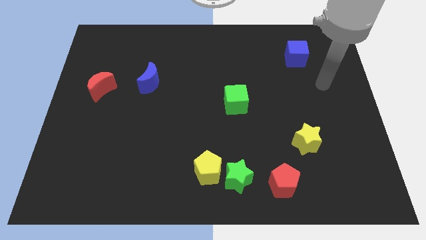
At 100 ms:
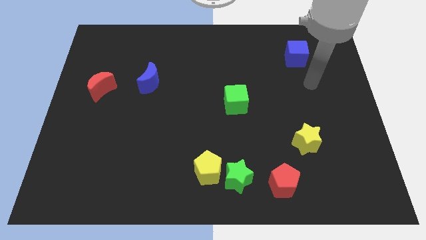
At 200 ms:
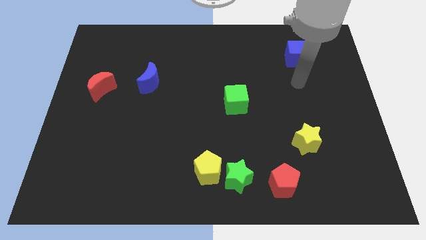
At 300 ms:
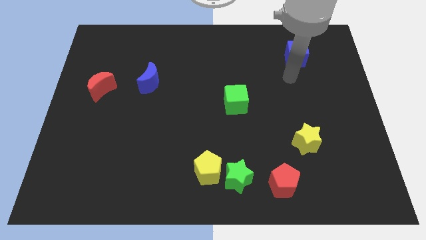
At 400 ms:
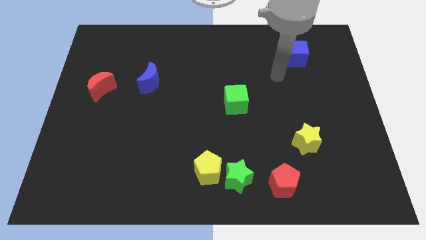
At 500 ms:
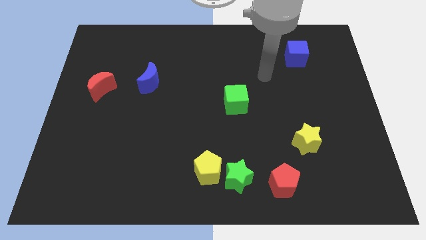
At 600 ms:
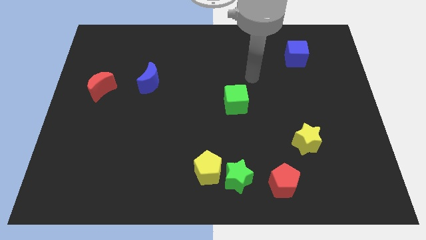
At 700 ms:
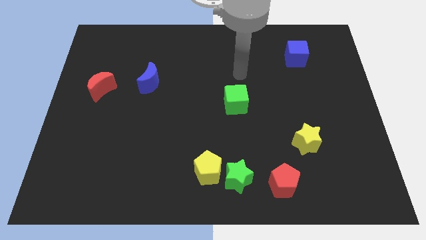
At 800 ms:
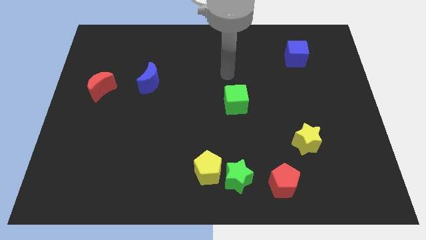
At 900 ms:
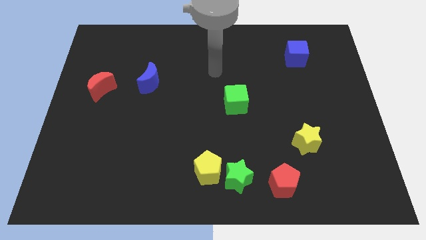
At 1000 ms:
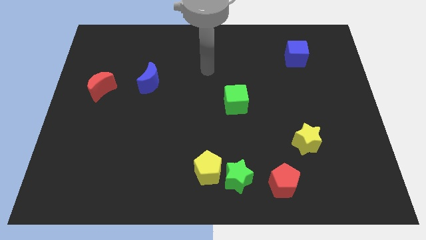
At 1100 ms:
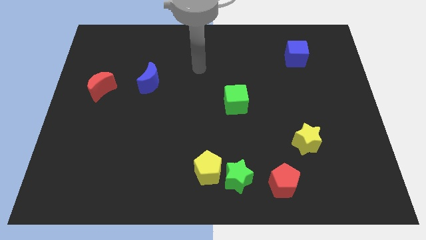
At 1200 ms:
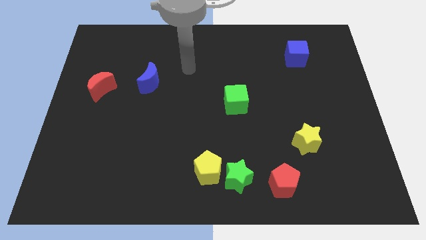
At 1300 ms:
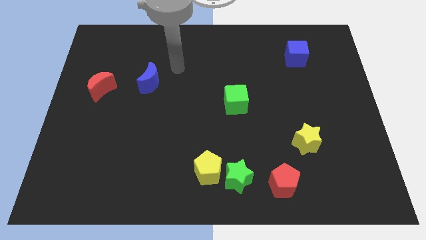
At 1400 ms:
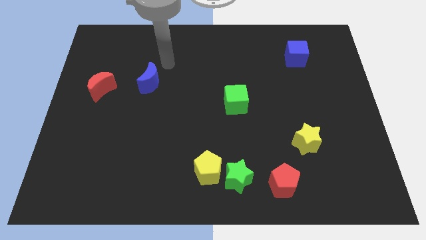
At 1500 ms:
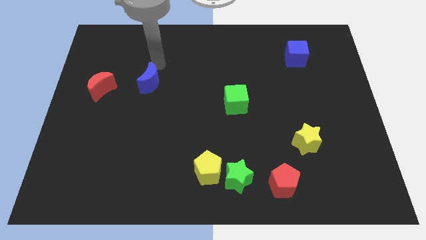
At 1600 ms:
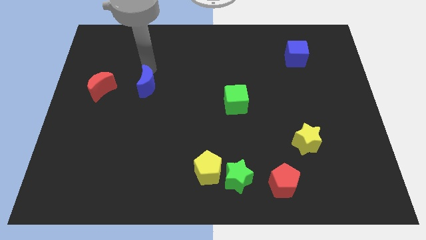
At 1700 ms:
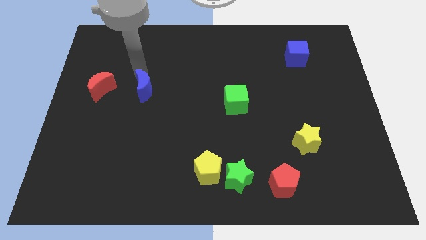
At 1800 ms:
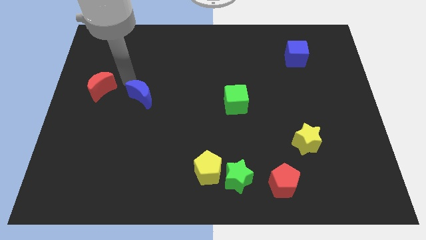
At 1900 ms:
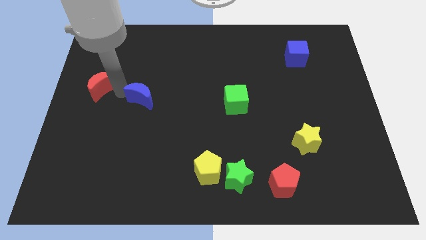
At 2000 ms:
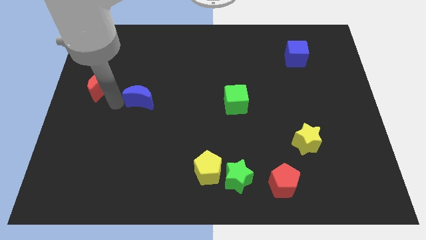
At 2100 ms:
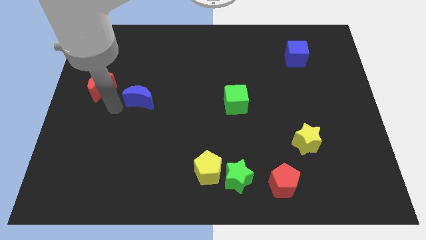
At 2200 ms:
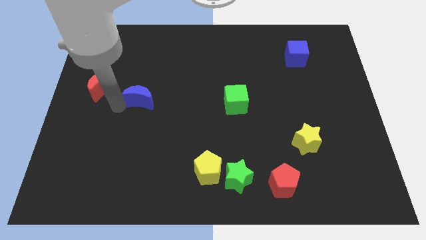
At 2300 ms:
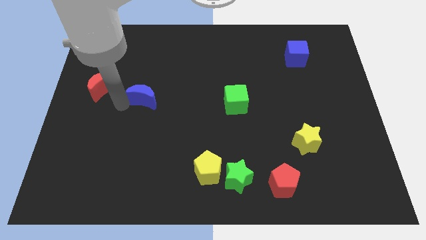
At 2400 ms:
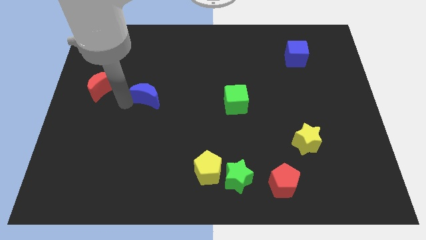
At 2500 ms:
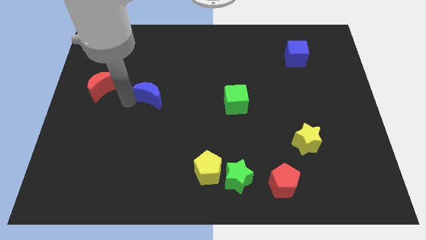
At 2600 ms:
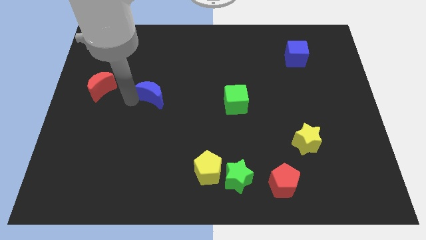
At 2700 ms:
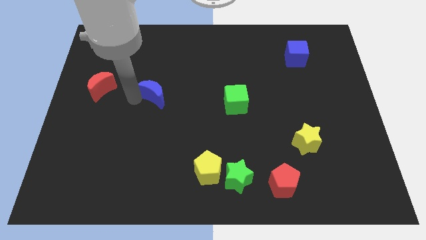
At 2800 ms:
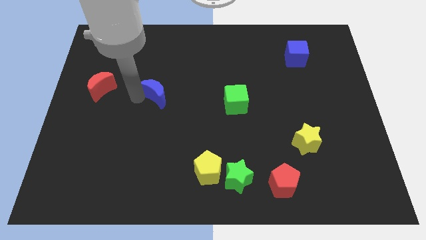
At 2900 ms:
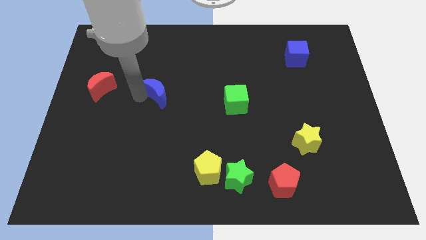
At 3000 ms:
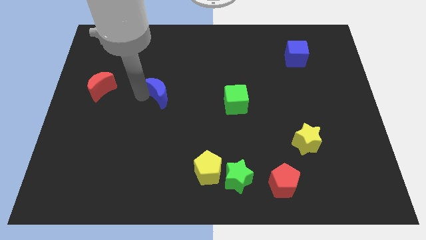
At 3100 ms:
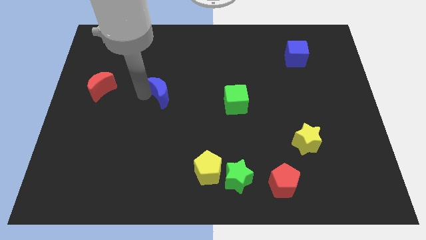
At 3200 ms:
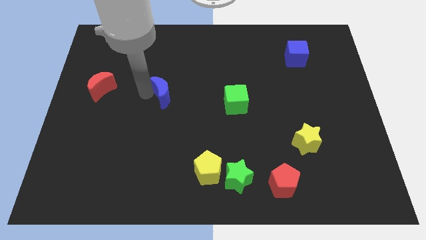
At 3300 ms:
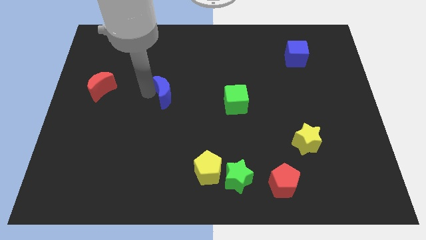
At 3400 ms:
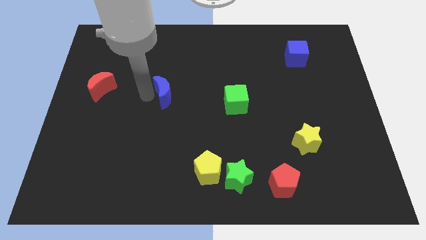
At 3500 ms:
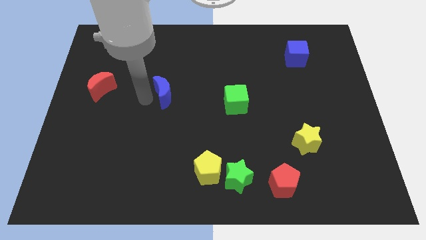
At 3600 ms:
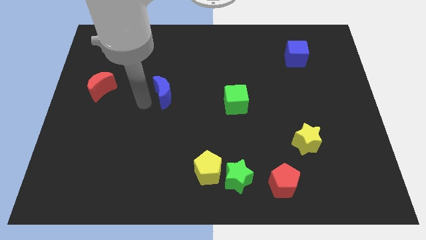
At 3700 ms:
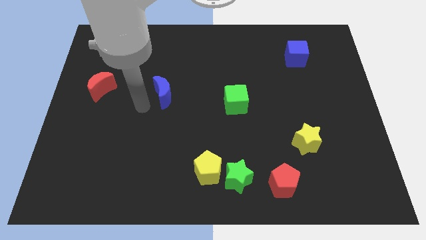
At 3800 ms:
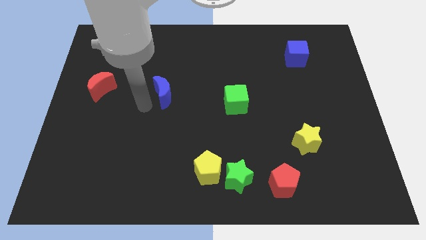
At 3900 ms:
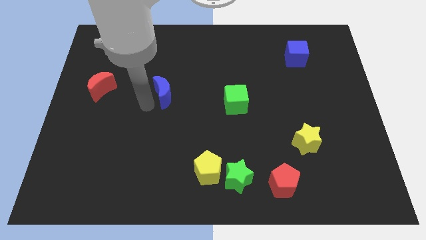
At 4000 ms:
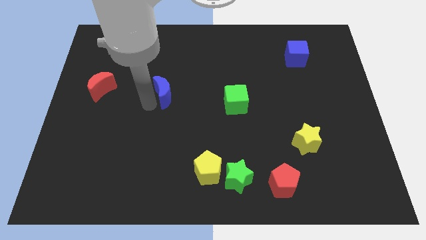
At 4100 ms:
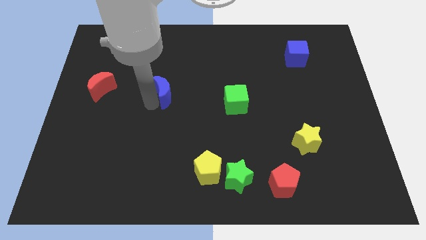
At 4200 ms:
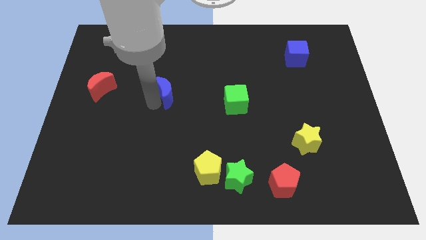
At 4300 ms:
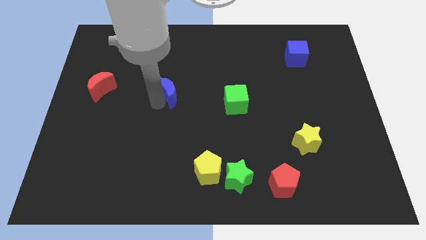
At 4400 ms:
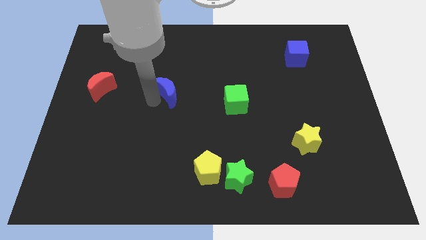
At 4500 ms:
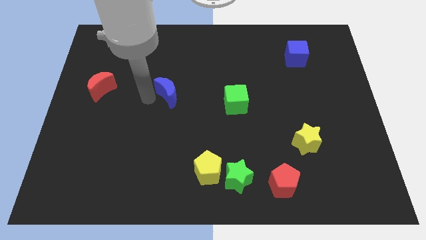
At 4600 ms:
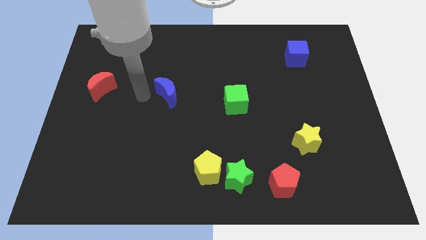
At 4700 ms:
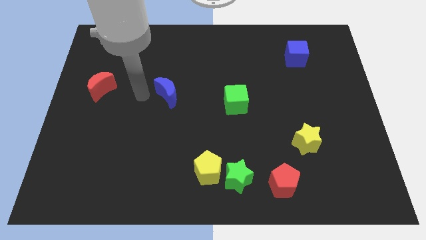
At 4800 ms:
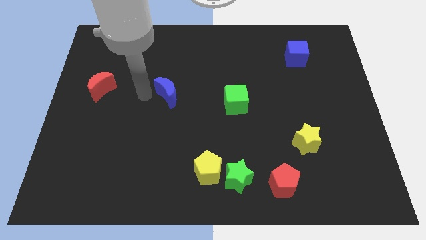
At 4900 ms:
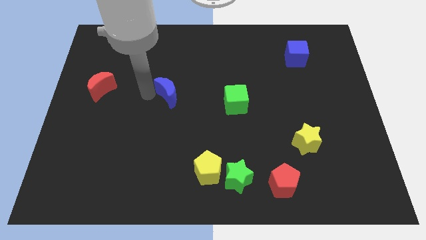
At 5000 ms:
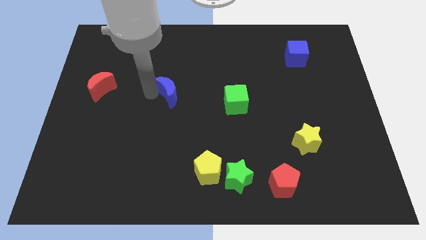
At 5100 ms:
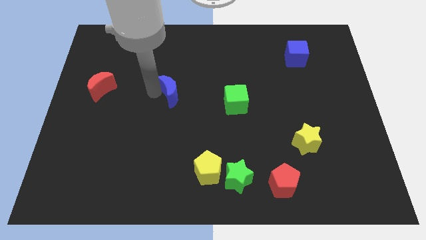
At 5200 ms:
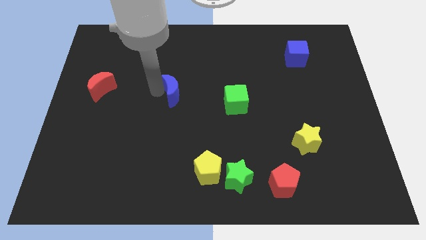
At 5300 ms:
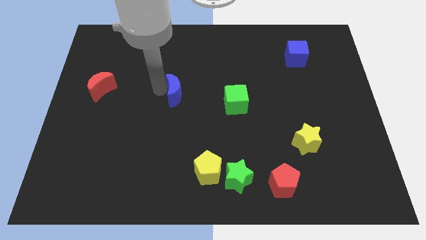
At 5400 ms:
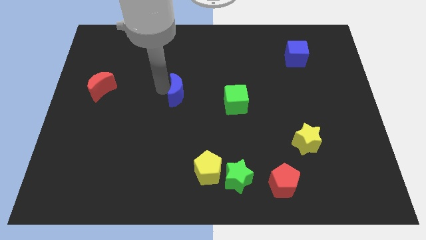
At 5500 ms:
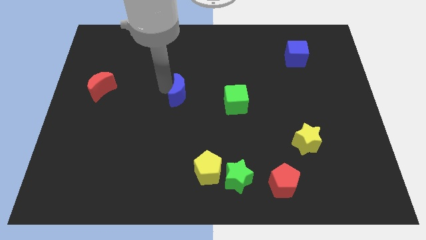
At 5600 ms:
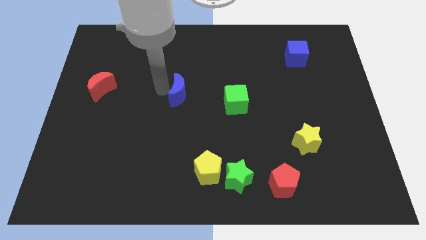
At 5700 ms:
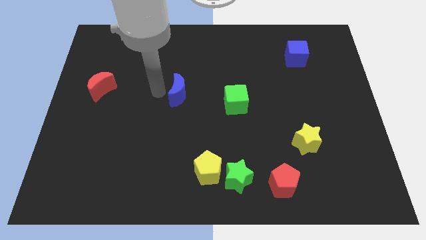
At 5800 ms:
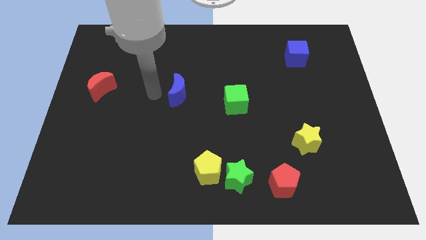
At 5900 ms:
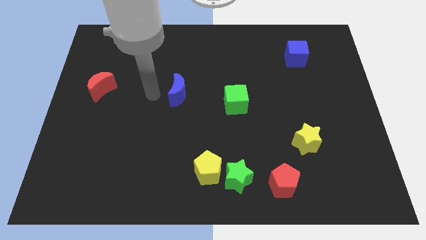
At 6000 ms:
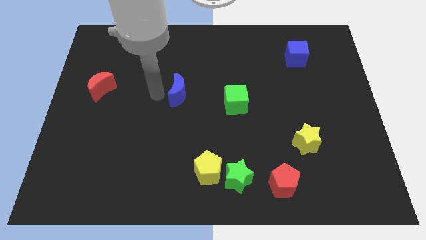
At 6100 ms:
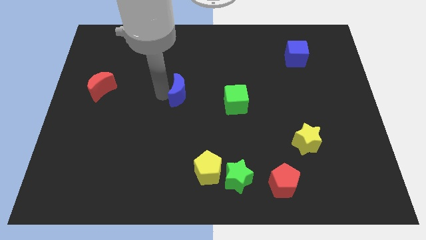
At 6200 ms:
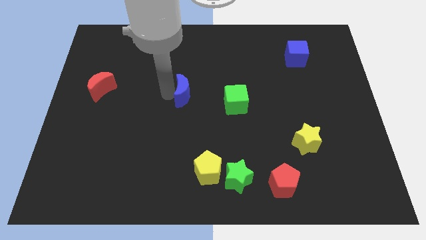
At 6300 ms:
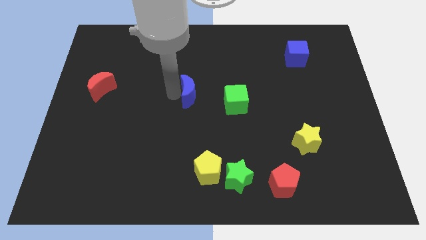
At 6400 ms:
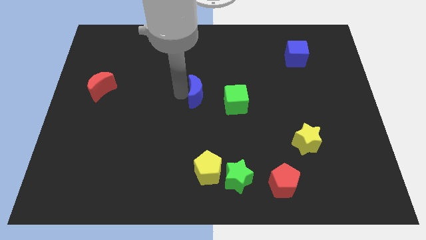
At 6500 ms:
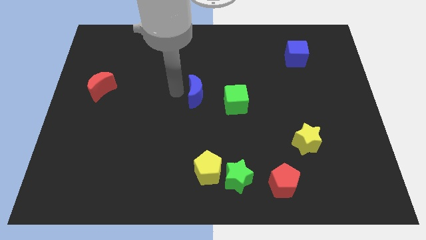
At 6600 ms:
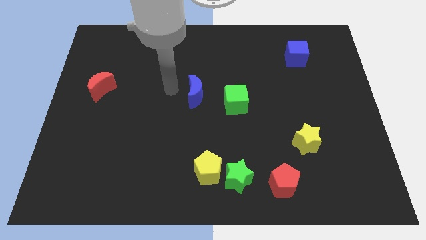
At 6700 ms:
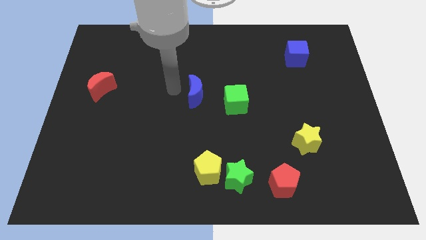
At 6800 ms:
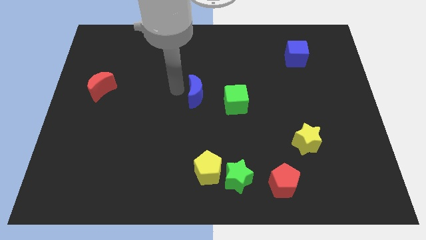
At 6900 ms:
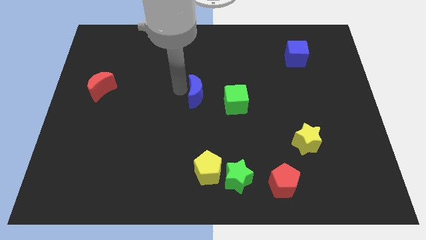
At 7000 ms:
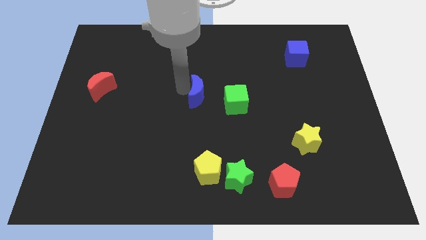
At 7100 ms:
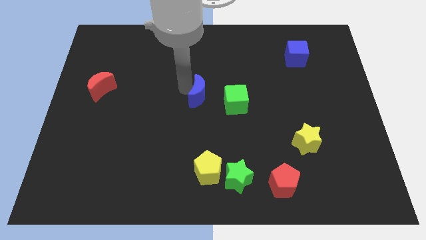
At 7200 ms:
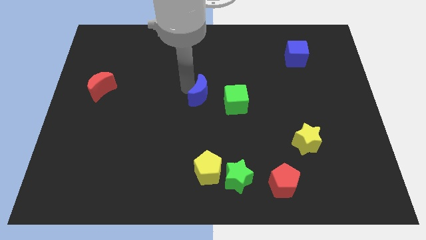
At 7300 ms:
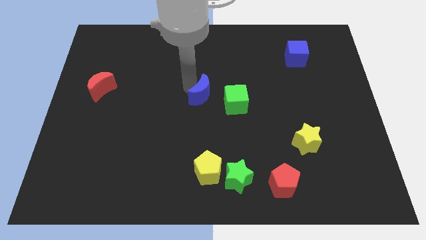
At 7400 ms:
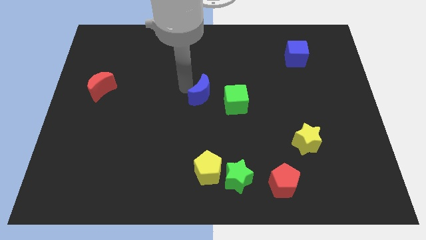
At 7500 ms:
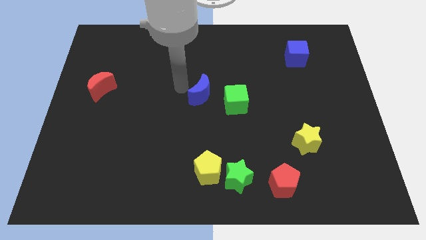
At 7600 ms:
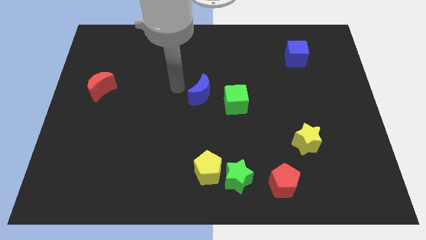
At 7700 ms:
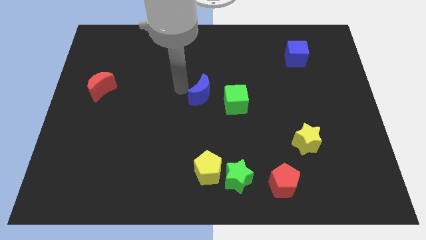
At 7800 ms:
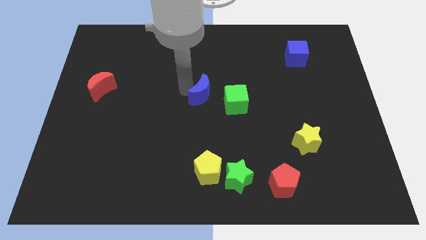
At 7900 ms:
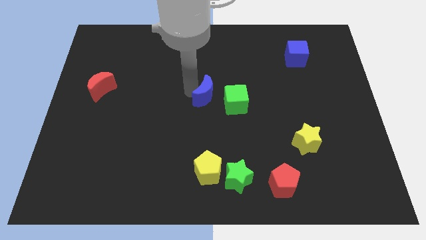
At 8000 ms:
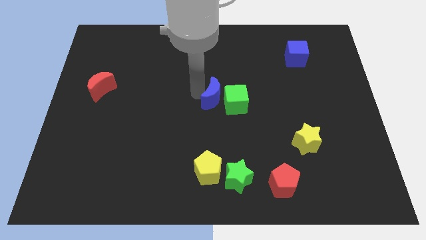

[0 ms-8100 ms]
push the blue moon to the green cube
